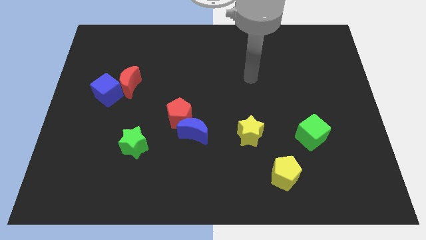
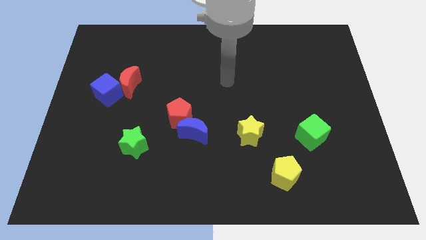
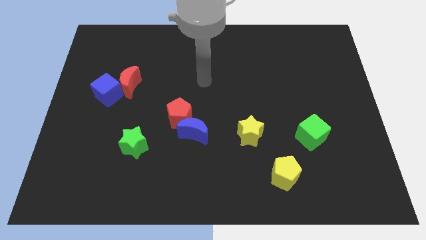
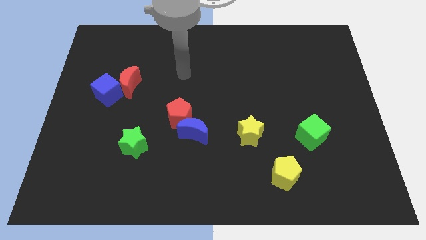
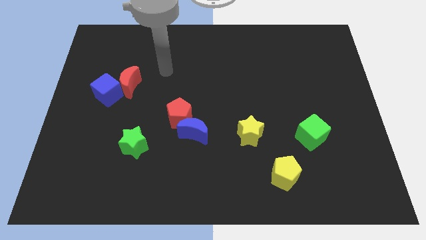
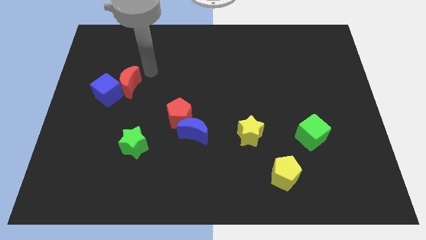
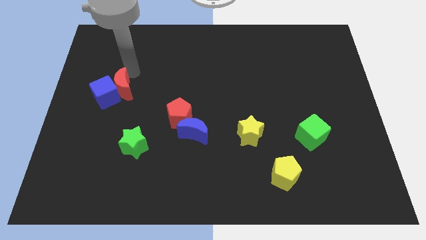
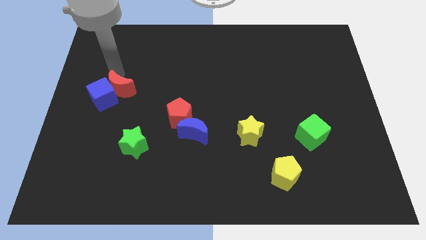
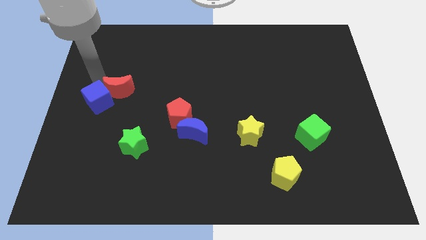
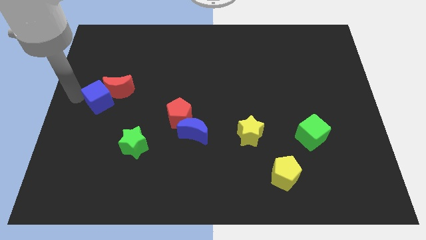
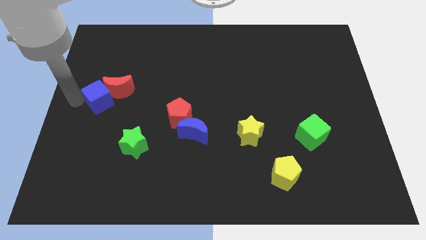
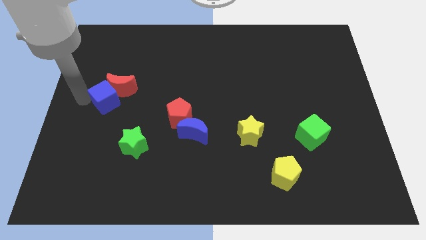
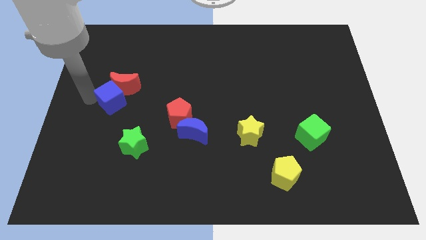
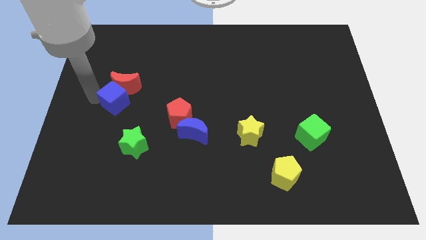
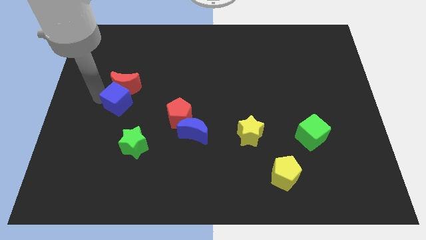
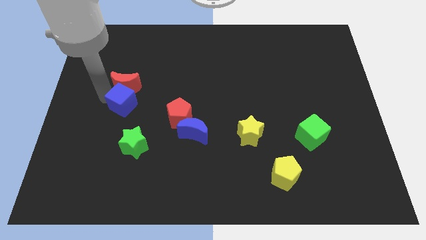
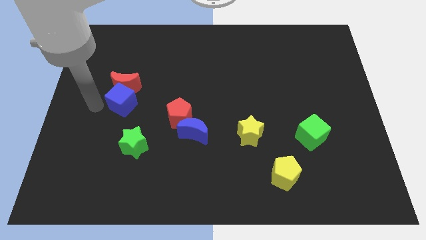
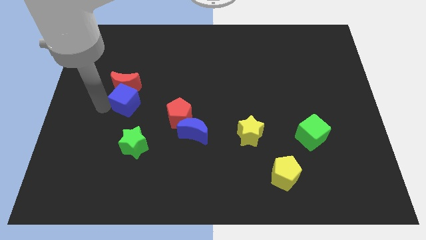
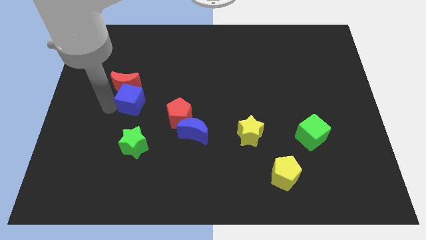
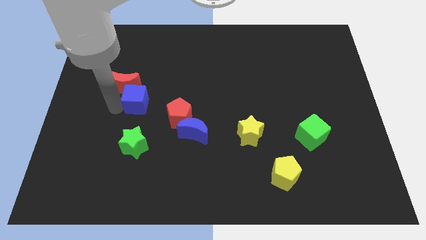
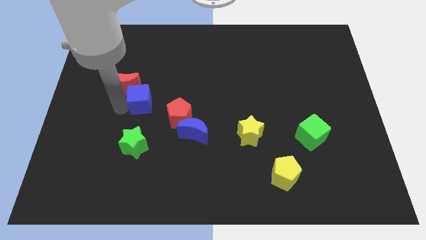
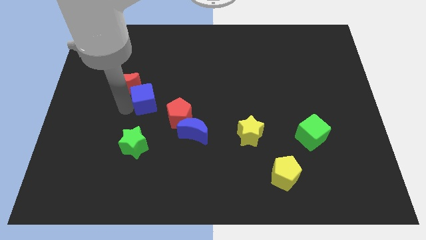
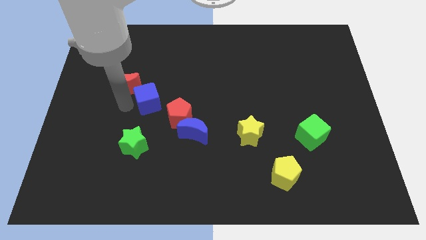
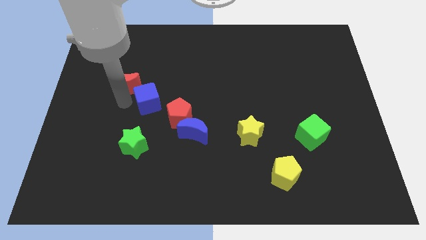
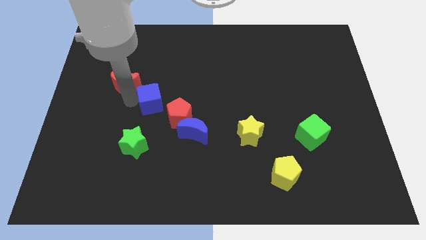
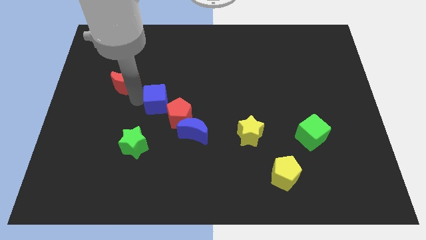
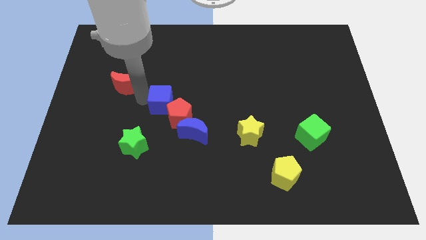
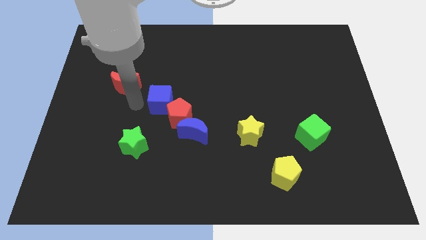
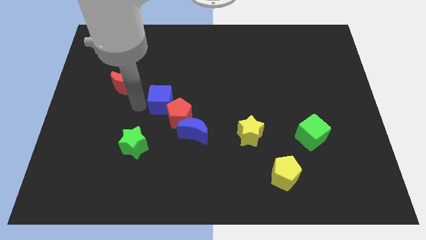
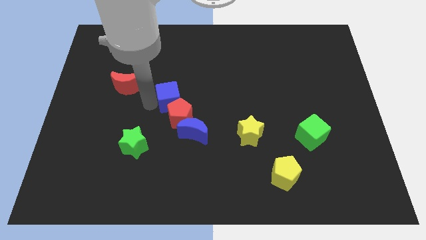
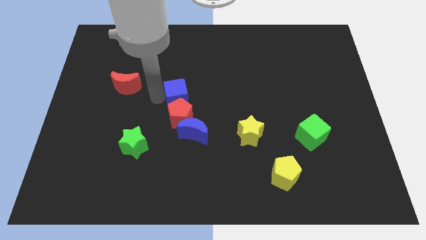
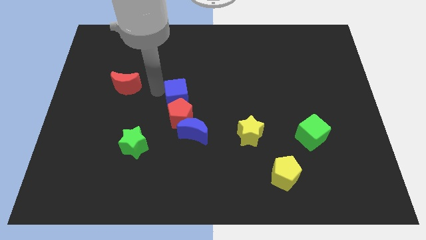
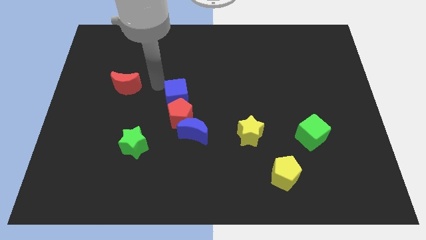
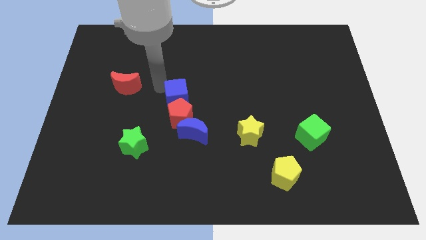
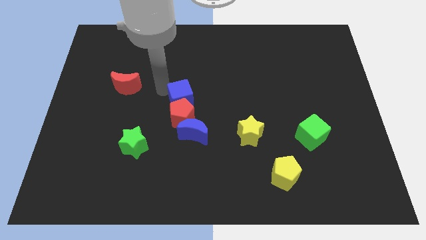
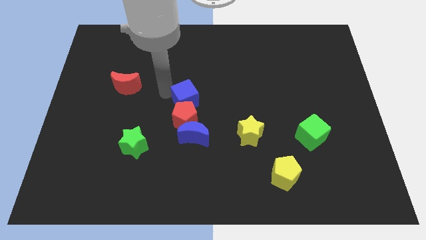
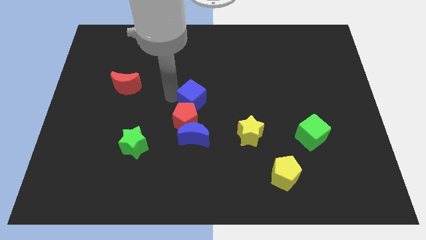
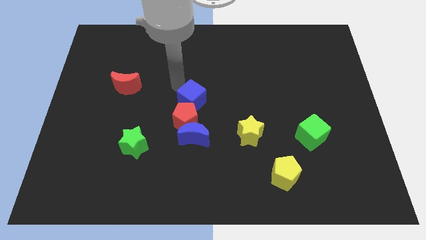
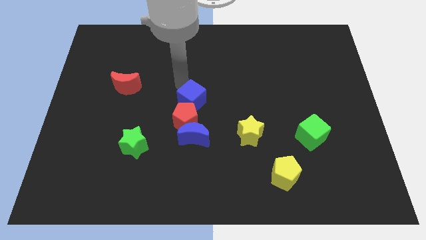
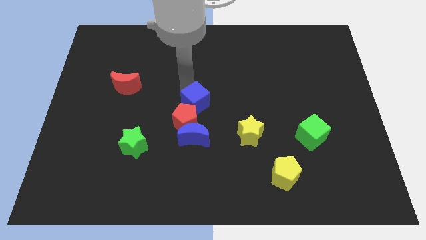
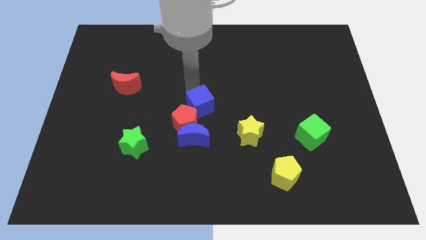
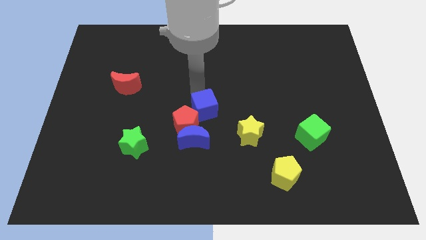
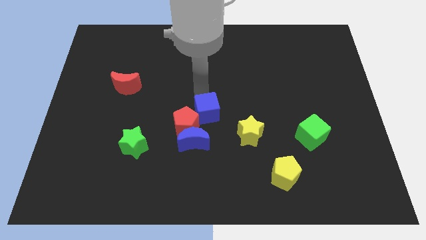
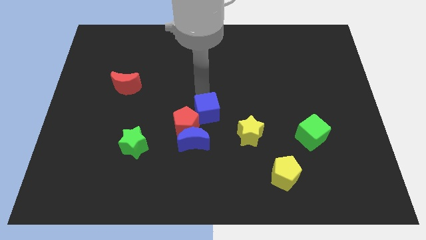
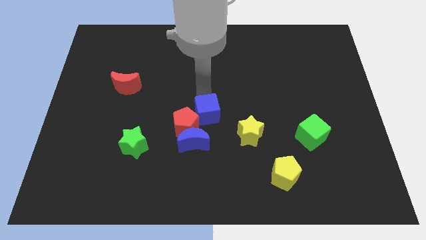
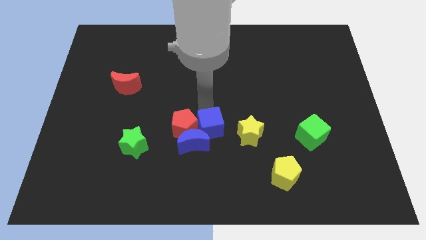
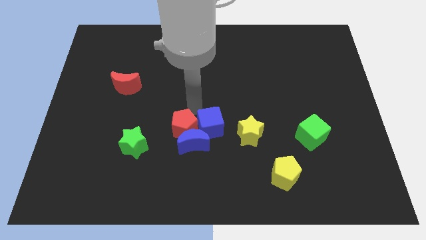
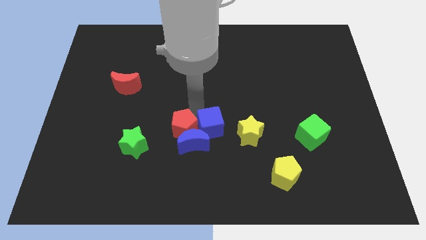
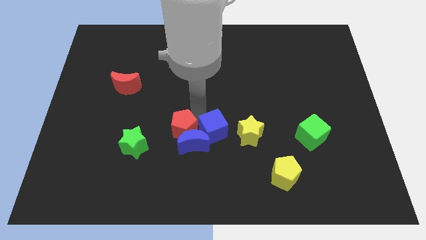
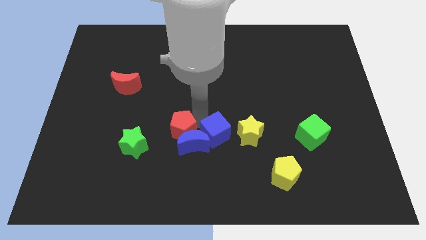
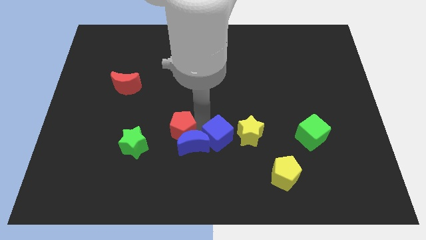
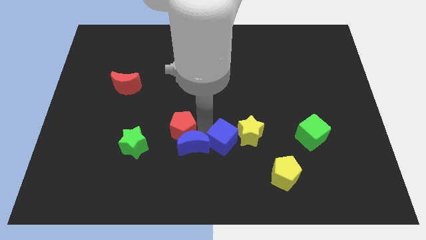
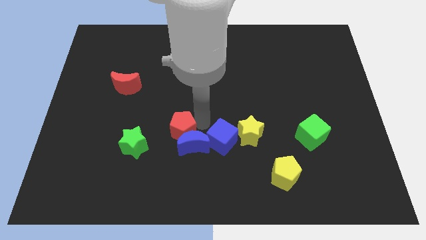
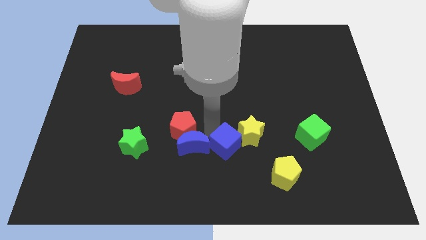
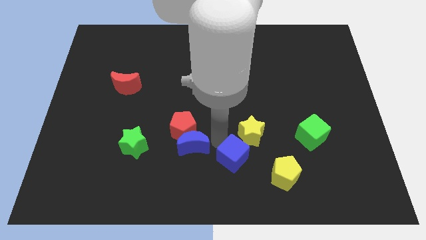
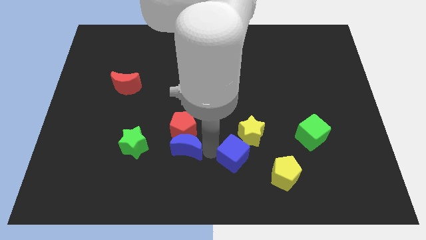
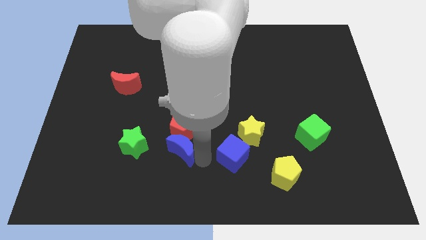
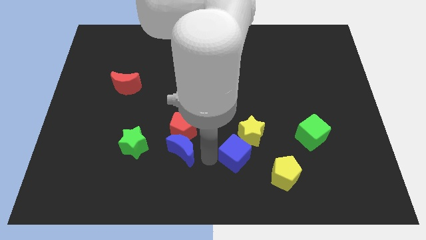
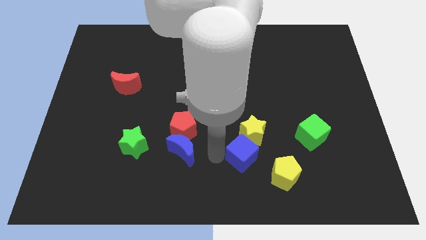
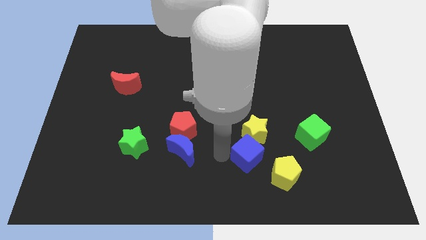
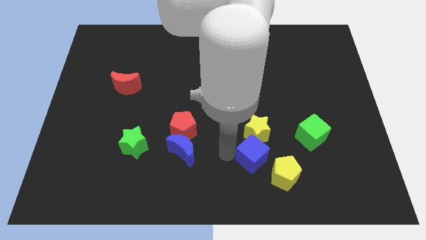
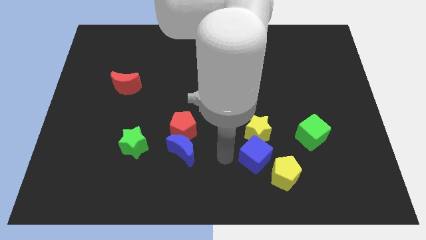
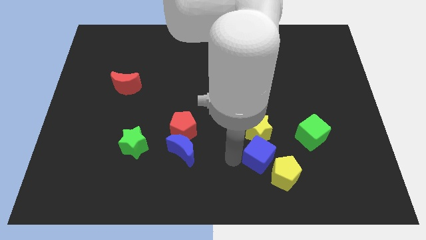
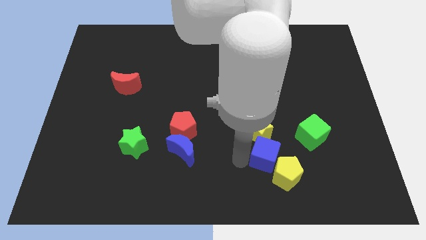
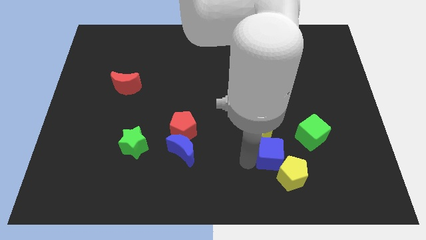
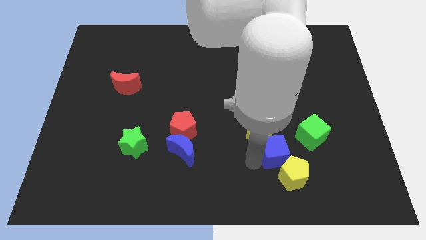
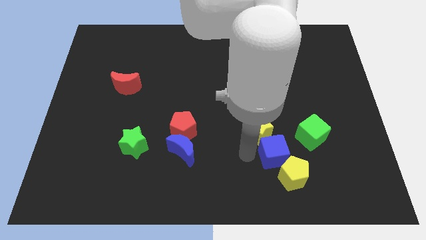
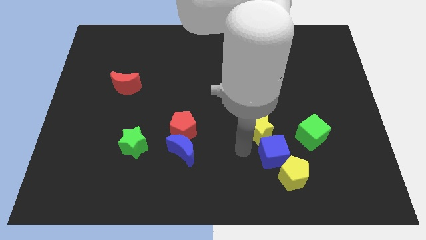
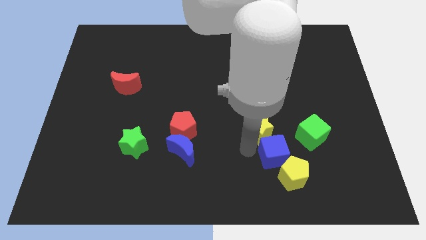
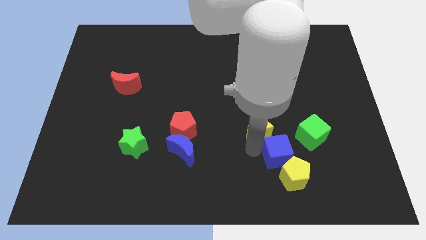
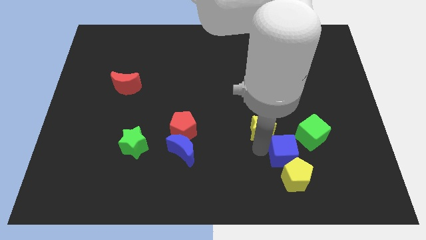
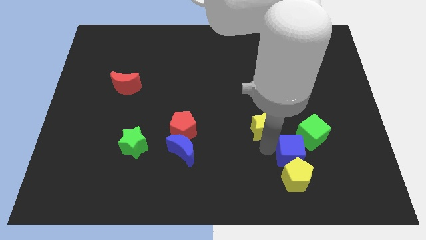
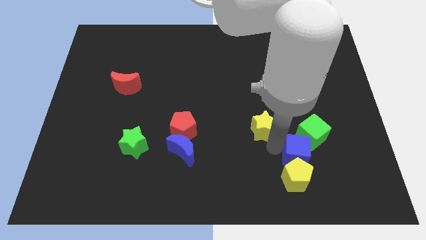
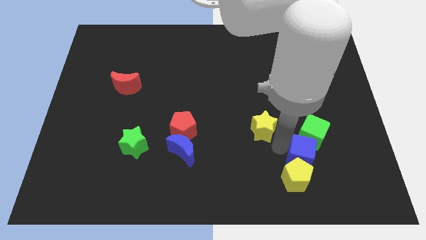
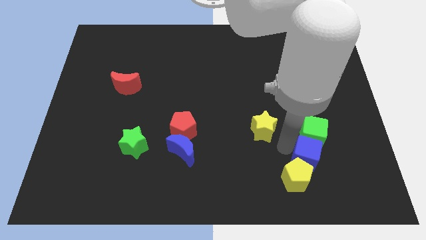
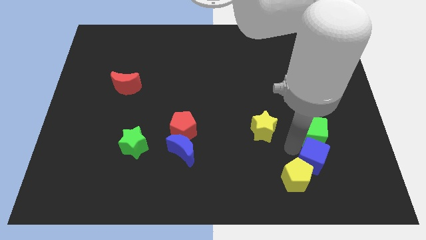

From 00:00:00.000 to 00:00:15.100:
slide the blue cube to the right side of the yellow pentagon

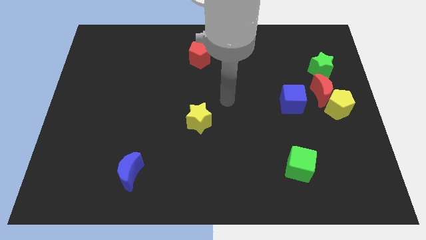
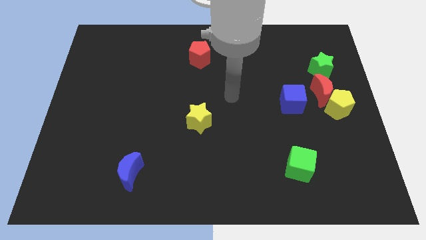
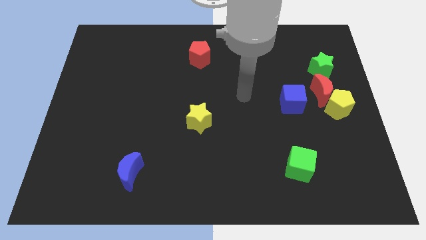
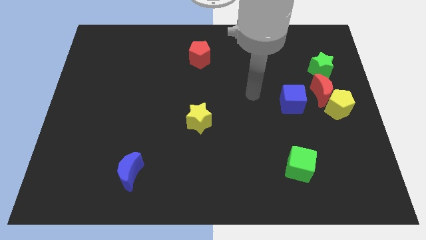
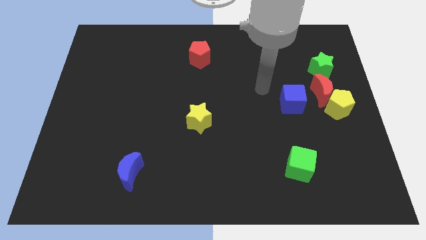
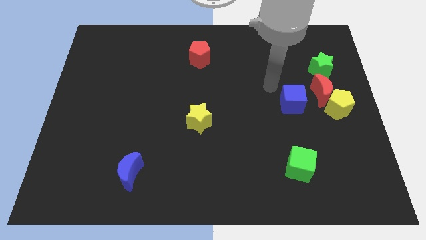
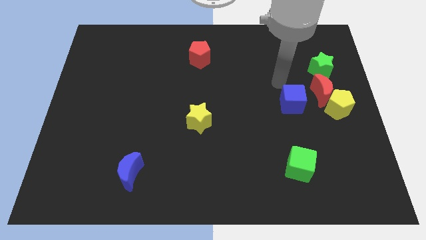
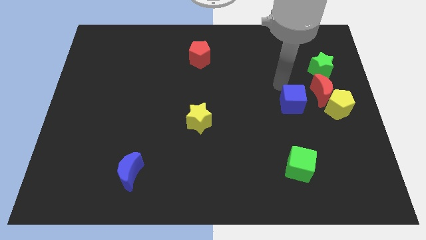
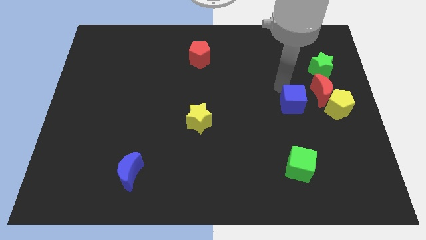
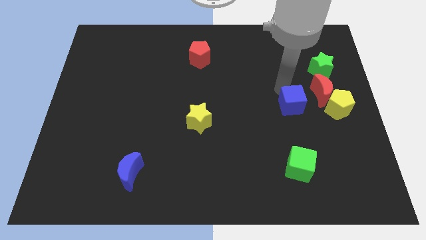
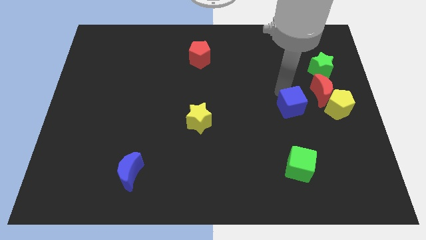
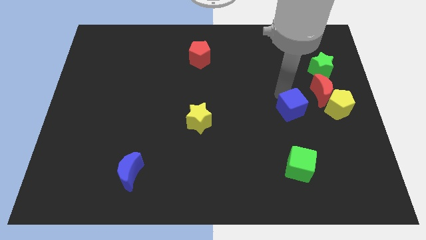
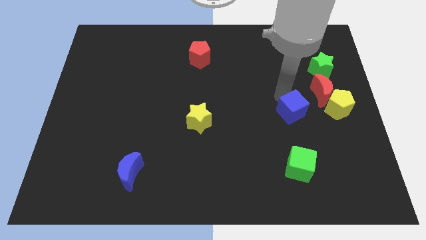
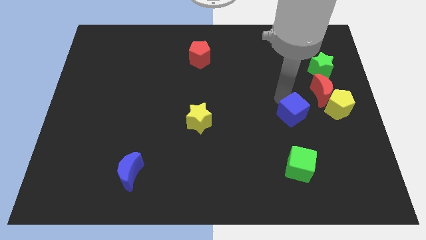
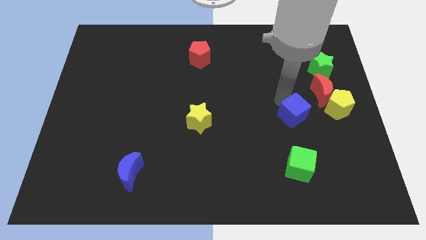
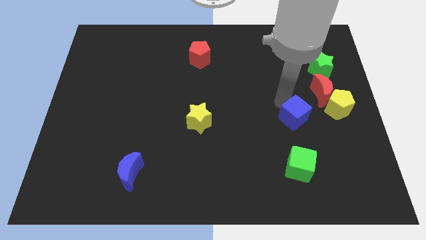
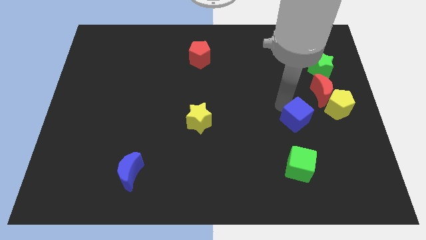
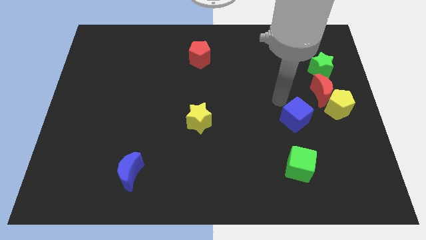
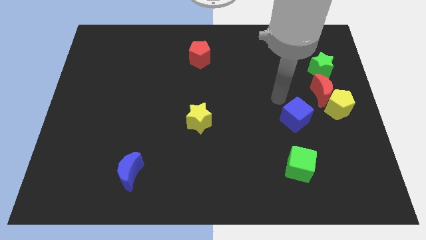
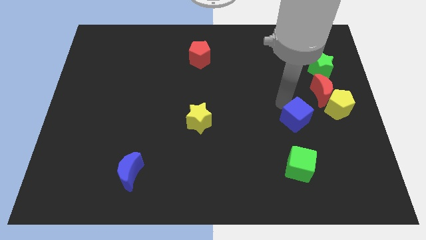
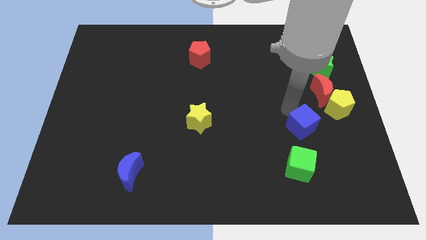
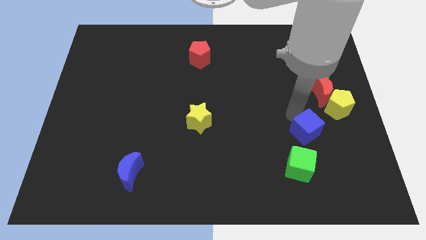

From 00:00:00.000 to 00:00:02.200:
push the blue cube diagonally up and to the right of the green cube
